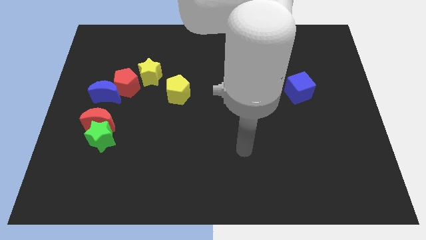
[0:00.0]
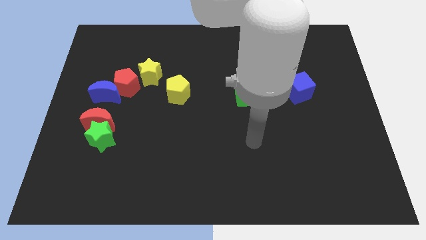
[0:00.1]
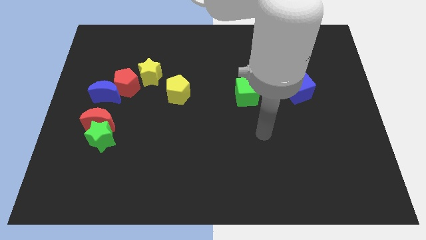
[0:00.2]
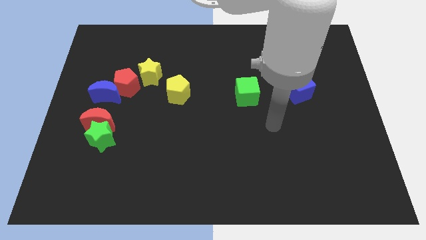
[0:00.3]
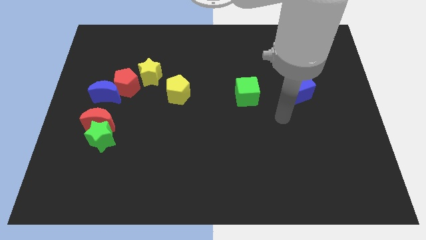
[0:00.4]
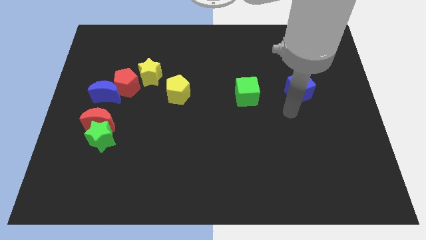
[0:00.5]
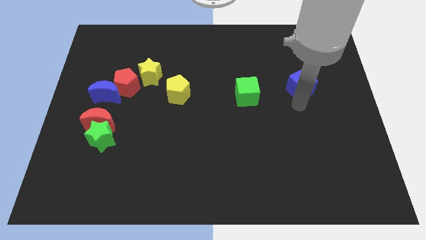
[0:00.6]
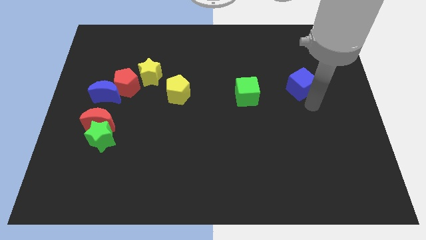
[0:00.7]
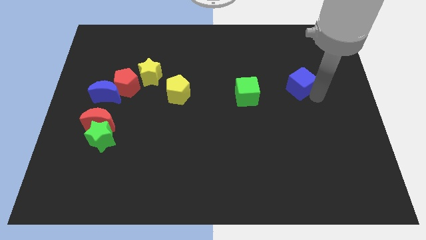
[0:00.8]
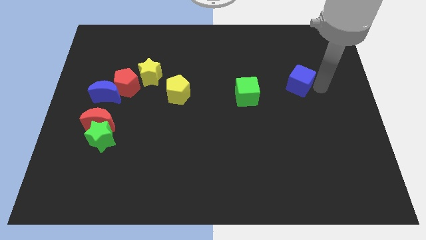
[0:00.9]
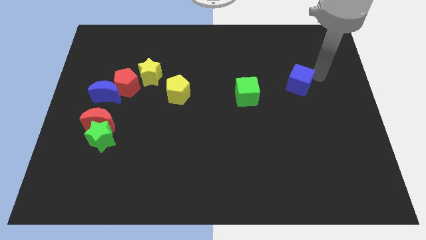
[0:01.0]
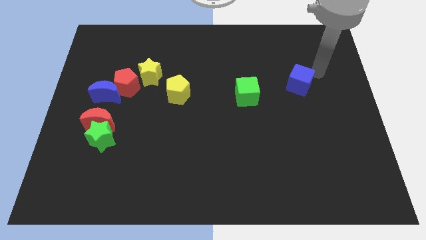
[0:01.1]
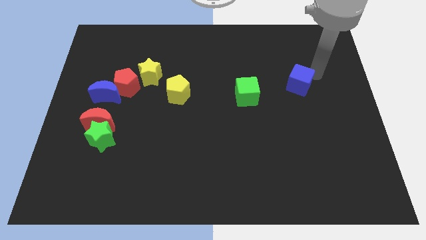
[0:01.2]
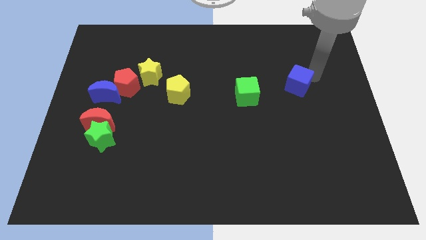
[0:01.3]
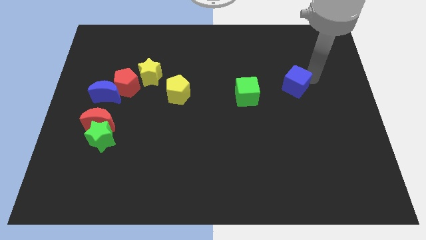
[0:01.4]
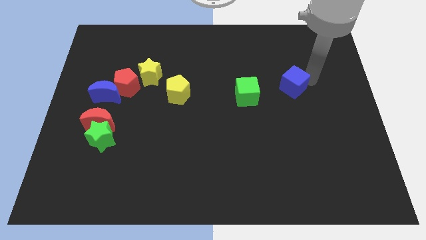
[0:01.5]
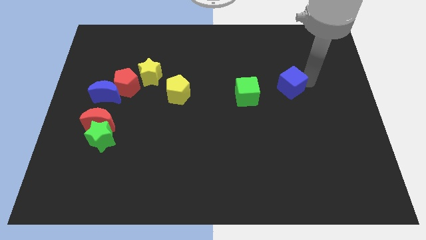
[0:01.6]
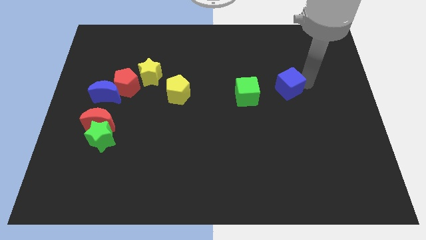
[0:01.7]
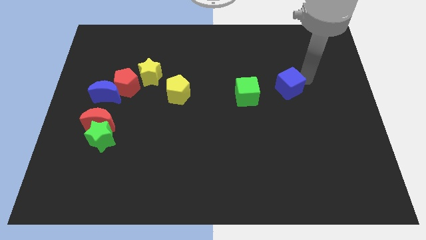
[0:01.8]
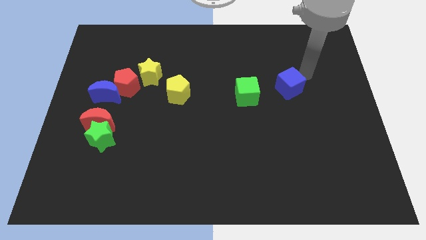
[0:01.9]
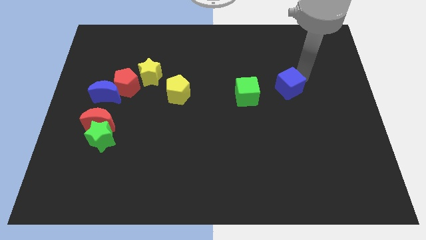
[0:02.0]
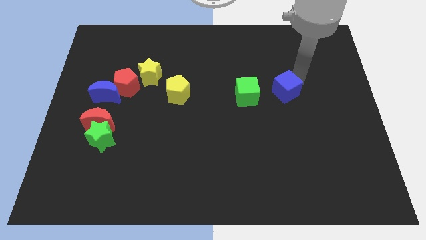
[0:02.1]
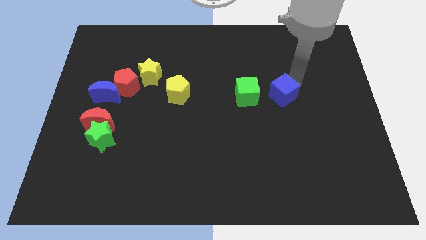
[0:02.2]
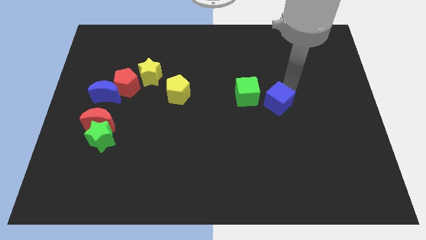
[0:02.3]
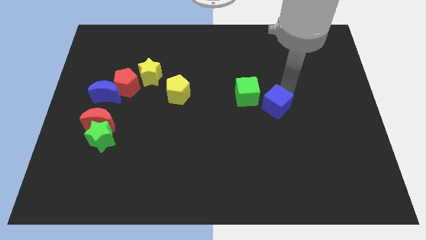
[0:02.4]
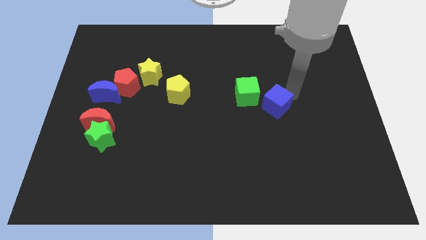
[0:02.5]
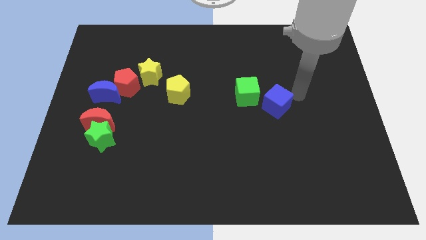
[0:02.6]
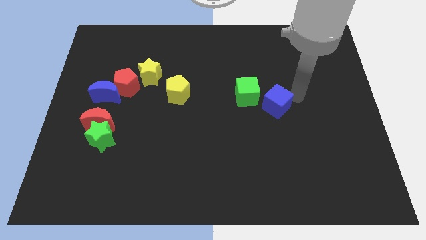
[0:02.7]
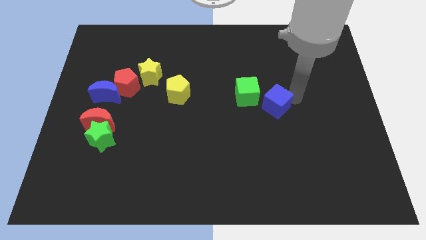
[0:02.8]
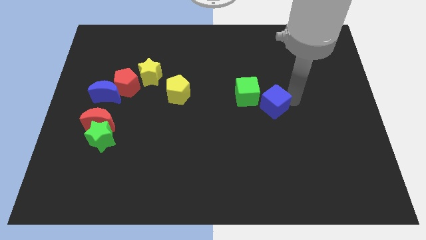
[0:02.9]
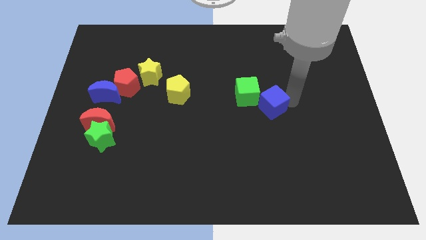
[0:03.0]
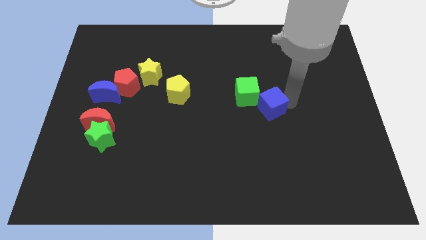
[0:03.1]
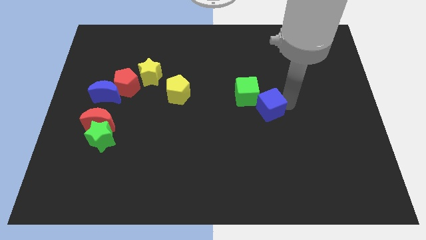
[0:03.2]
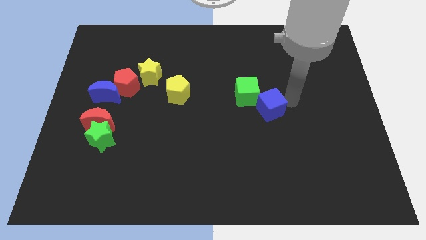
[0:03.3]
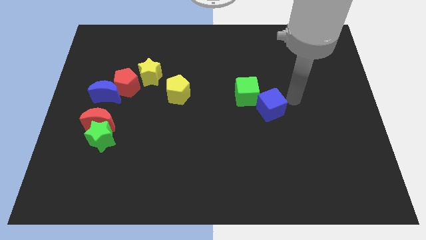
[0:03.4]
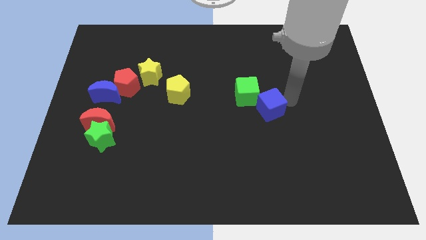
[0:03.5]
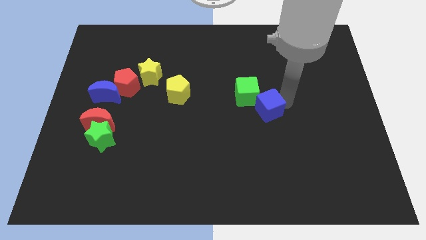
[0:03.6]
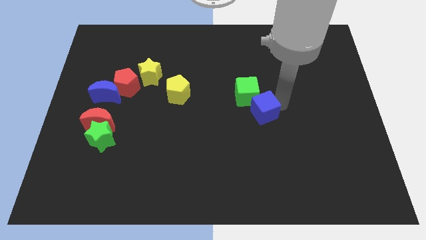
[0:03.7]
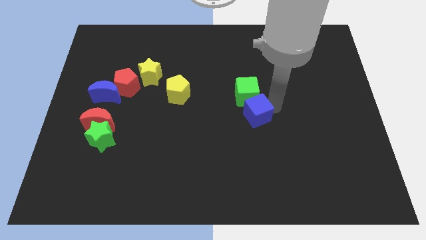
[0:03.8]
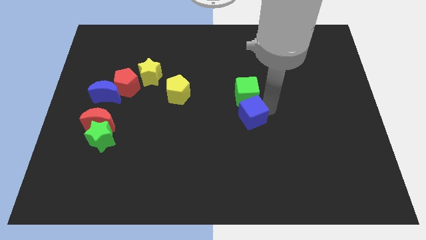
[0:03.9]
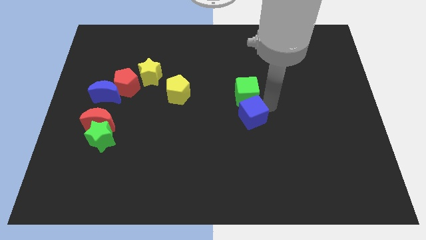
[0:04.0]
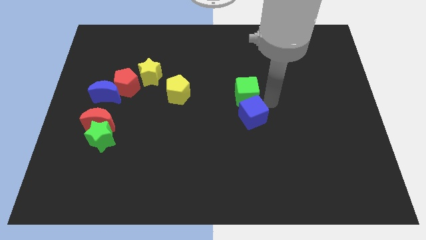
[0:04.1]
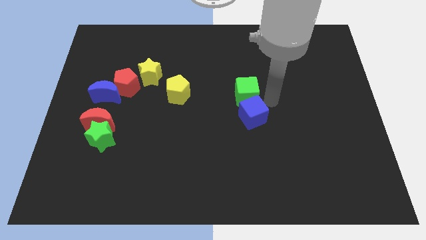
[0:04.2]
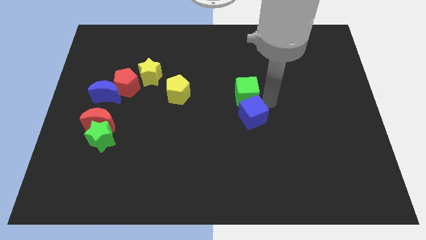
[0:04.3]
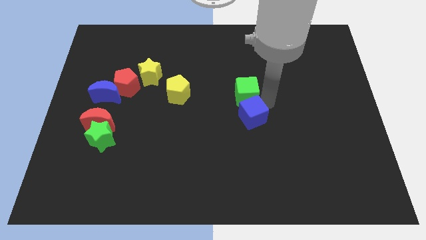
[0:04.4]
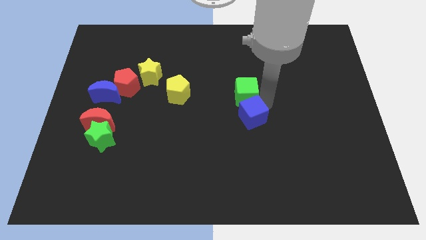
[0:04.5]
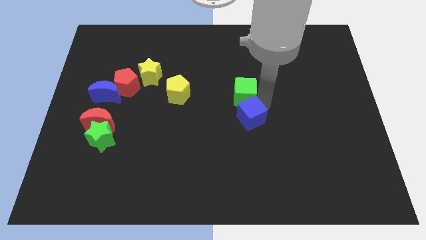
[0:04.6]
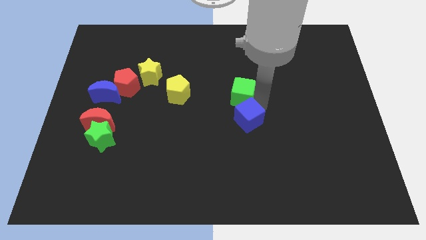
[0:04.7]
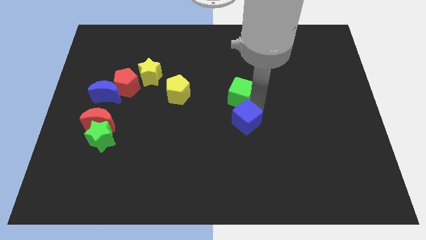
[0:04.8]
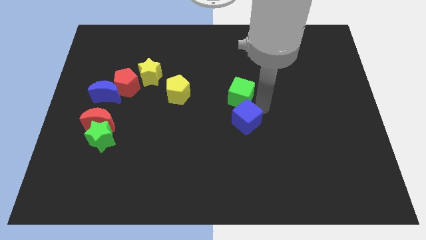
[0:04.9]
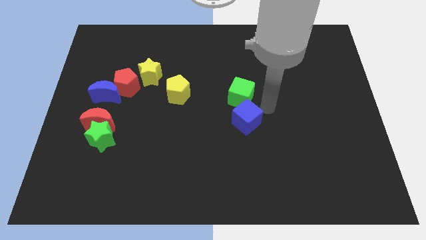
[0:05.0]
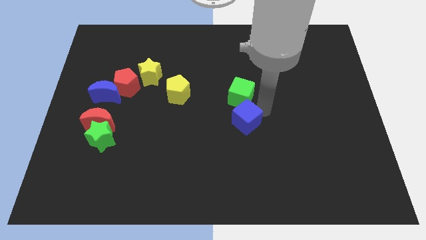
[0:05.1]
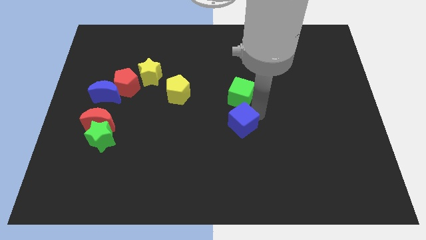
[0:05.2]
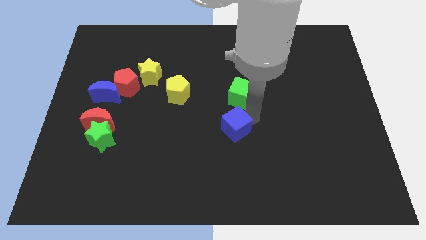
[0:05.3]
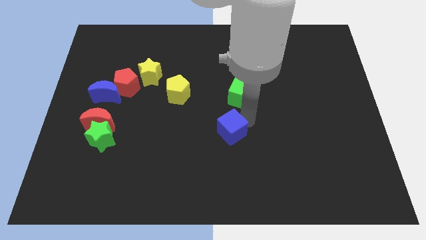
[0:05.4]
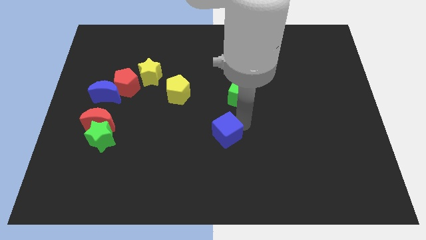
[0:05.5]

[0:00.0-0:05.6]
push the blue cube downwards and left diagonally

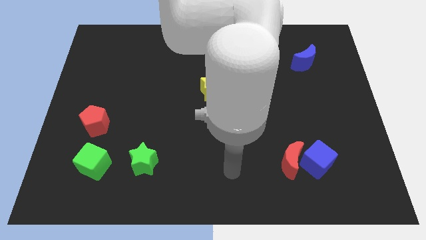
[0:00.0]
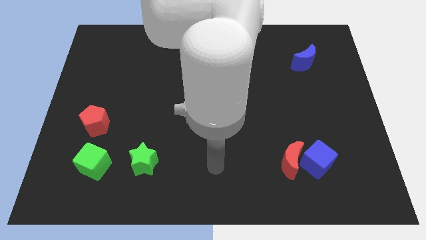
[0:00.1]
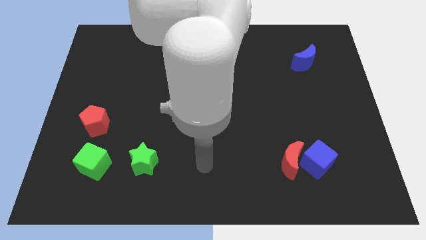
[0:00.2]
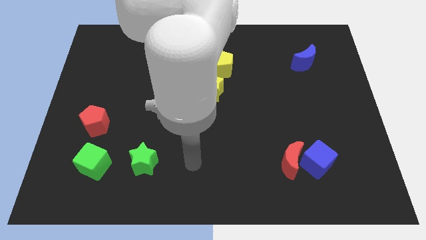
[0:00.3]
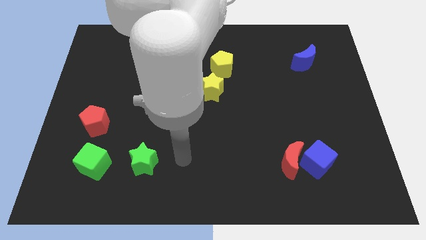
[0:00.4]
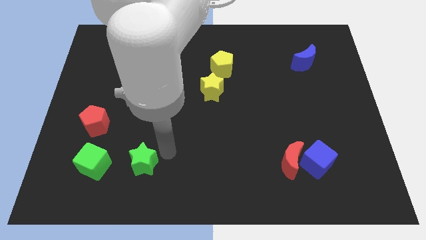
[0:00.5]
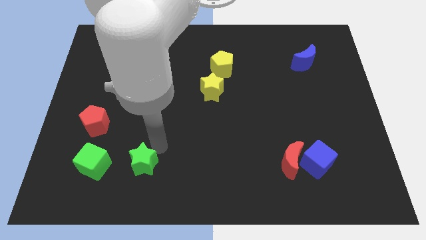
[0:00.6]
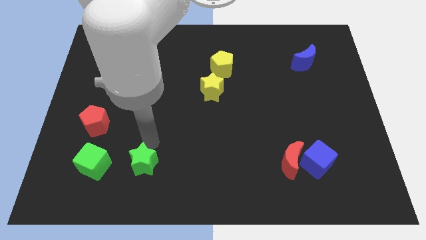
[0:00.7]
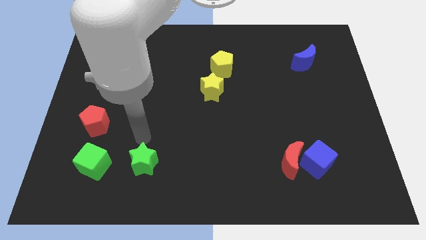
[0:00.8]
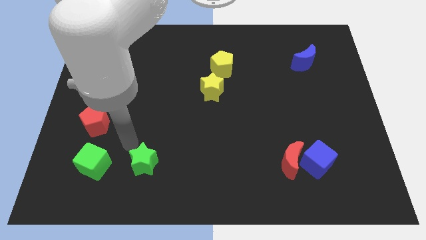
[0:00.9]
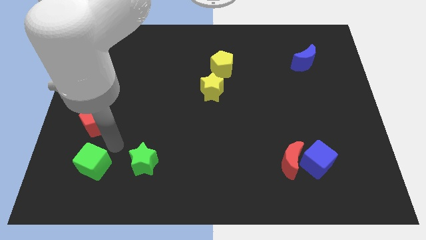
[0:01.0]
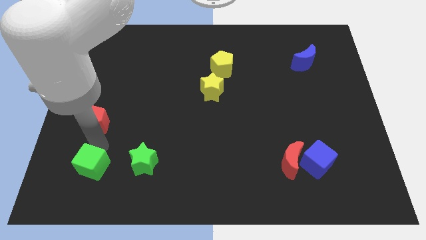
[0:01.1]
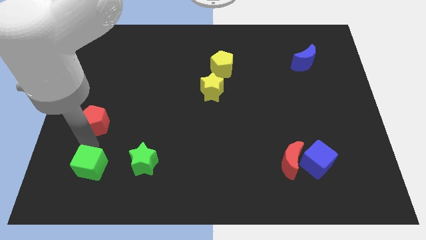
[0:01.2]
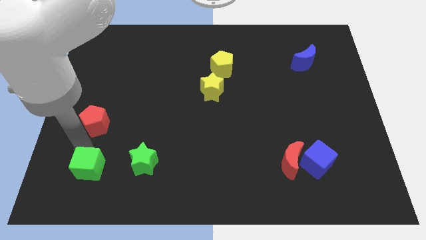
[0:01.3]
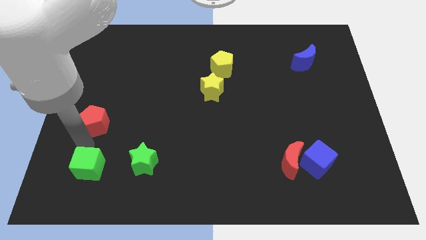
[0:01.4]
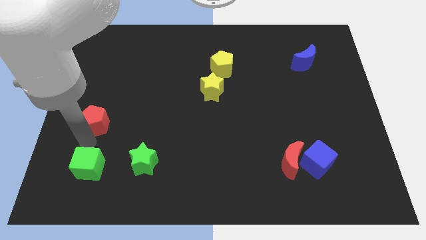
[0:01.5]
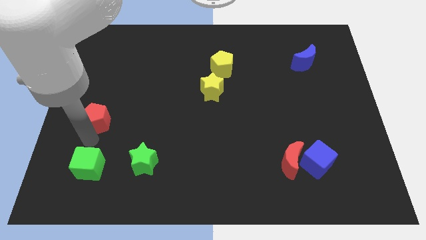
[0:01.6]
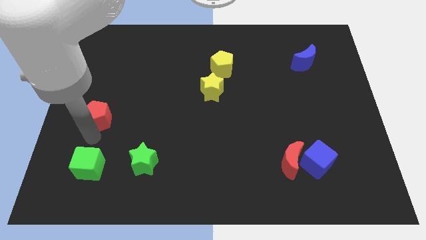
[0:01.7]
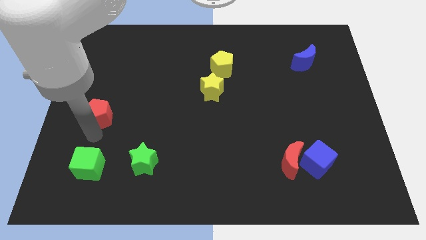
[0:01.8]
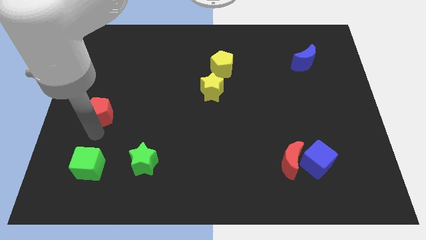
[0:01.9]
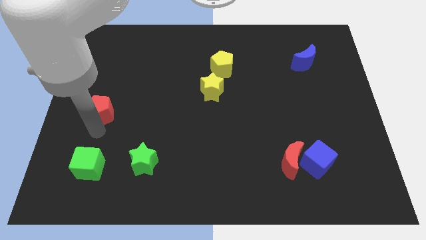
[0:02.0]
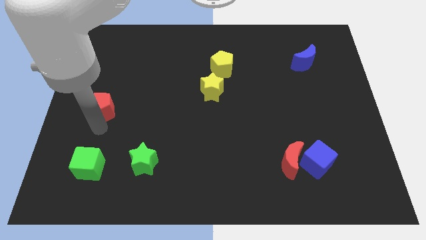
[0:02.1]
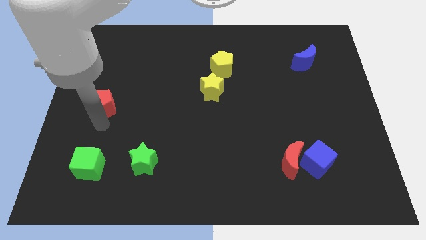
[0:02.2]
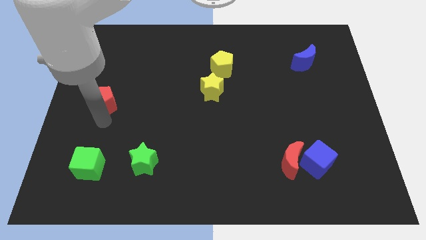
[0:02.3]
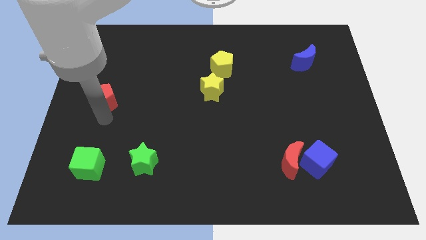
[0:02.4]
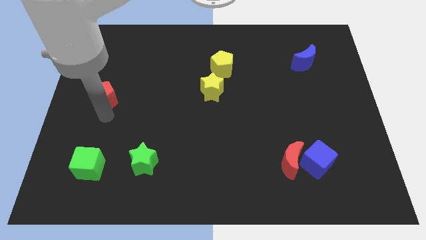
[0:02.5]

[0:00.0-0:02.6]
push the red pentagon upwards a bit
